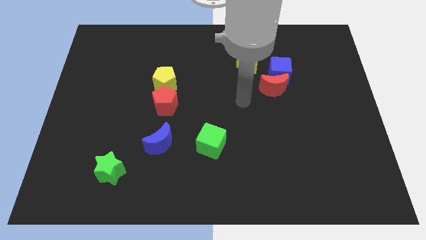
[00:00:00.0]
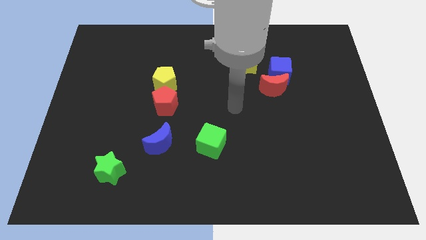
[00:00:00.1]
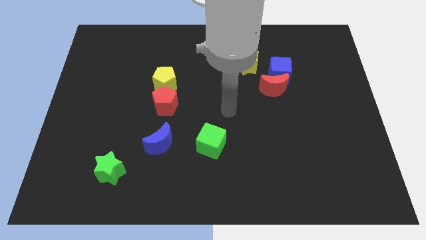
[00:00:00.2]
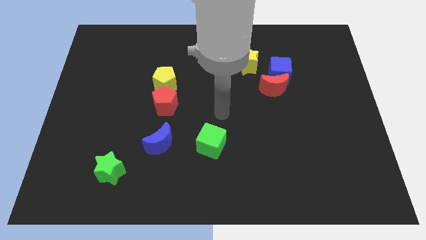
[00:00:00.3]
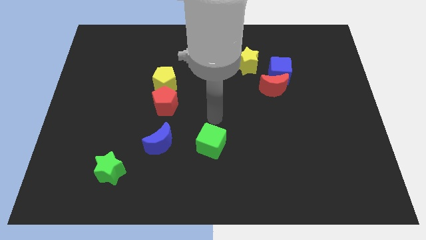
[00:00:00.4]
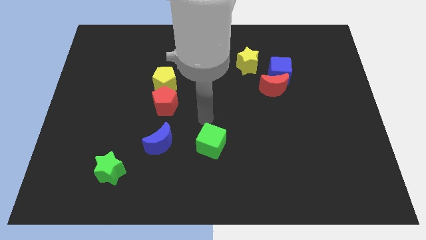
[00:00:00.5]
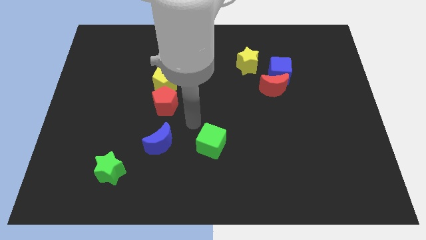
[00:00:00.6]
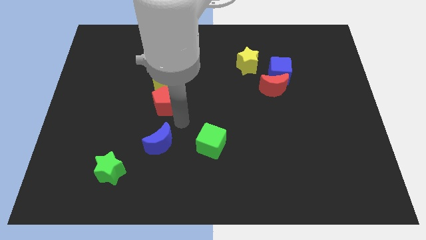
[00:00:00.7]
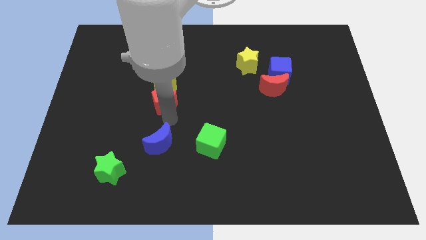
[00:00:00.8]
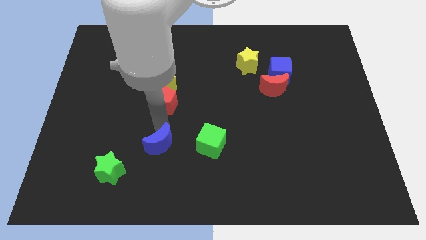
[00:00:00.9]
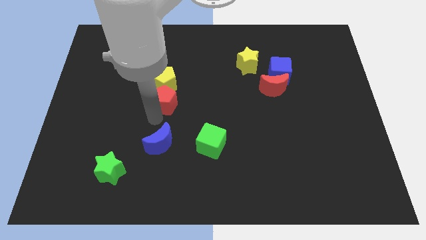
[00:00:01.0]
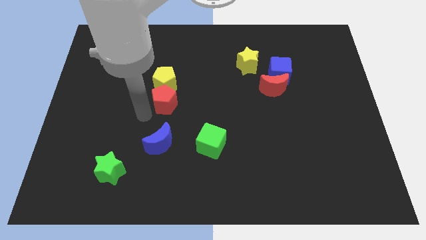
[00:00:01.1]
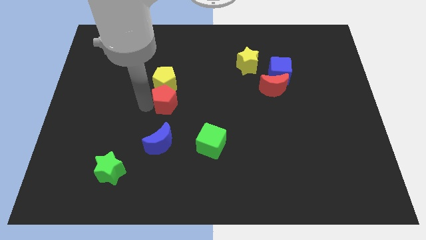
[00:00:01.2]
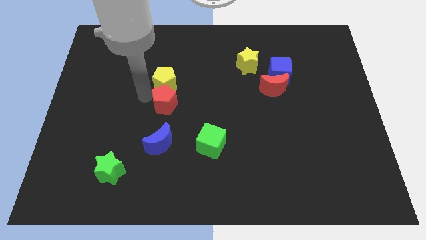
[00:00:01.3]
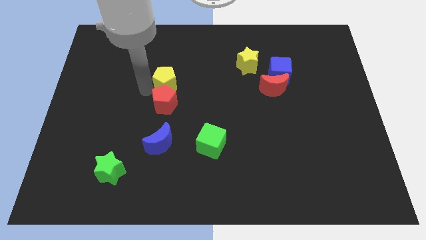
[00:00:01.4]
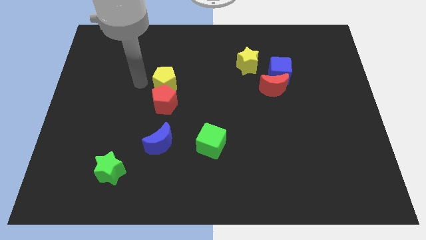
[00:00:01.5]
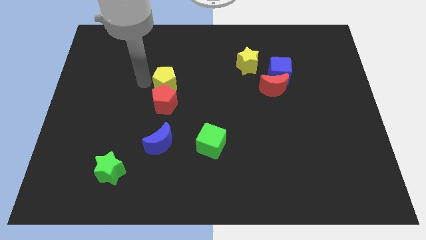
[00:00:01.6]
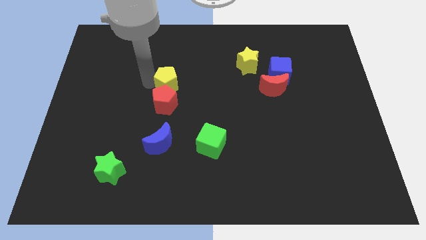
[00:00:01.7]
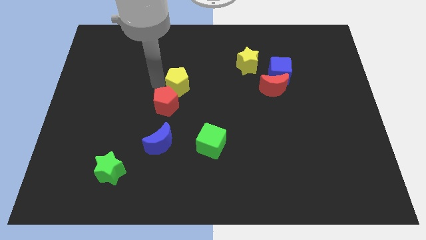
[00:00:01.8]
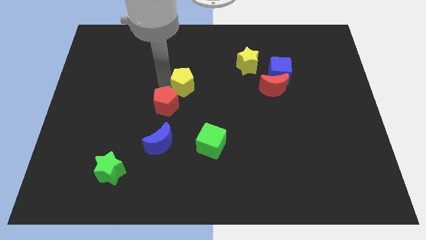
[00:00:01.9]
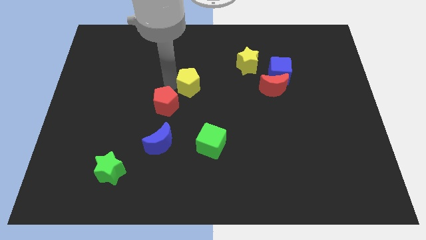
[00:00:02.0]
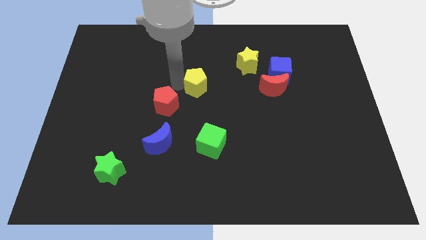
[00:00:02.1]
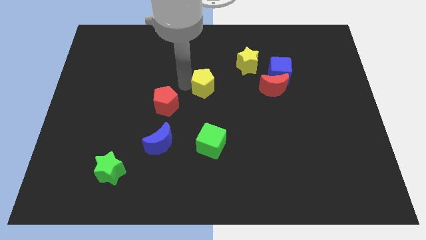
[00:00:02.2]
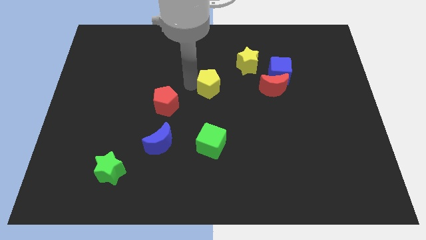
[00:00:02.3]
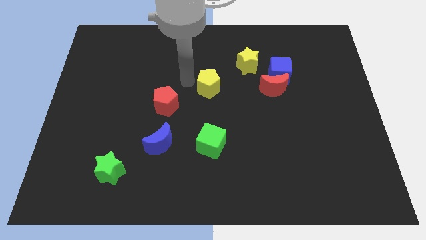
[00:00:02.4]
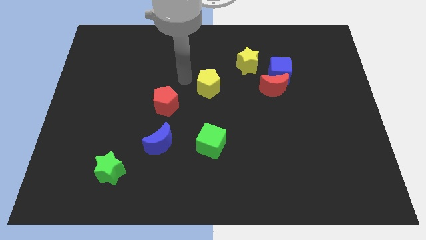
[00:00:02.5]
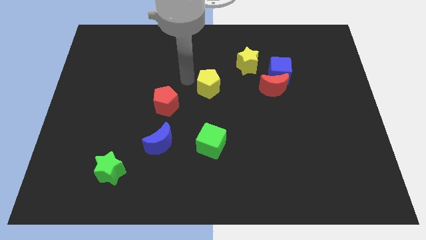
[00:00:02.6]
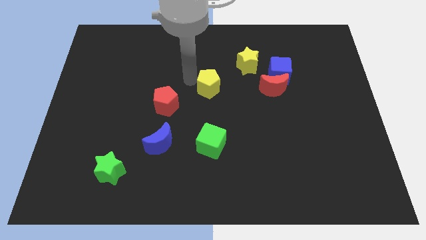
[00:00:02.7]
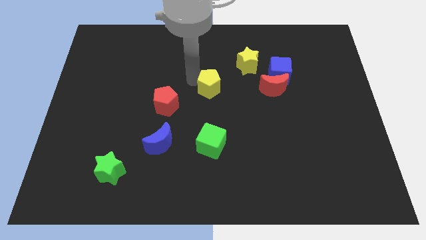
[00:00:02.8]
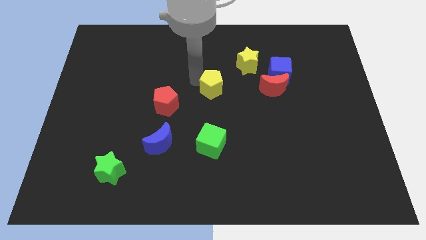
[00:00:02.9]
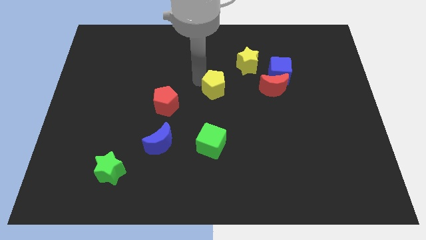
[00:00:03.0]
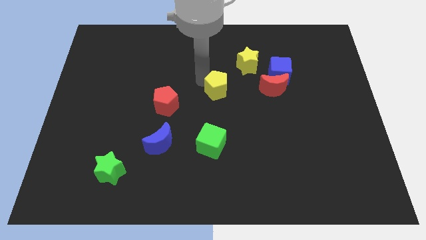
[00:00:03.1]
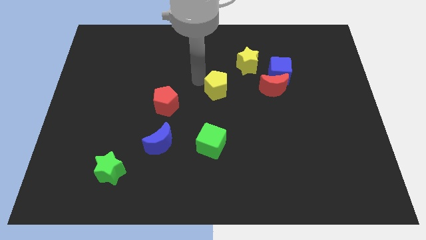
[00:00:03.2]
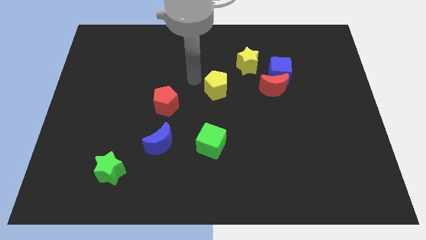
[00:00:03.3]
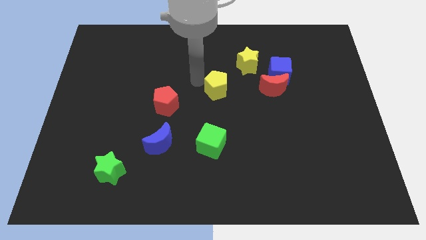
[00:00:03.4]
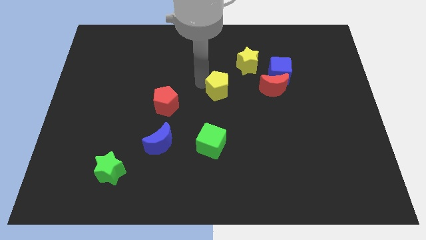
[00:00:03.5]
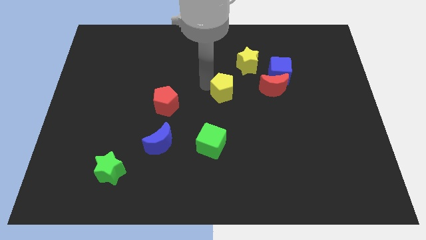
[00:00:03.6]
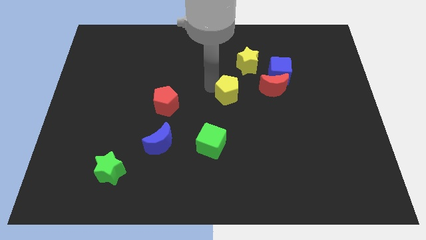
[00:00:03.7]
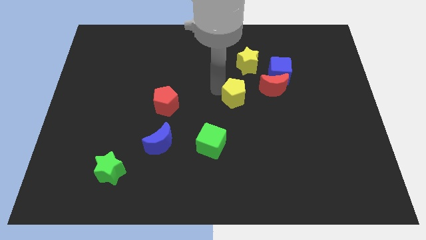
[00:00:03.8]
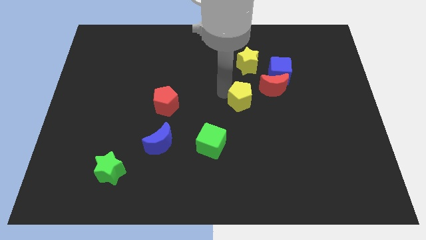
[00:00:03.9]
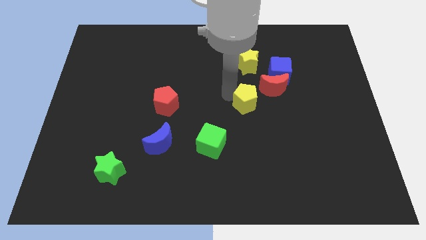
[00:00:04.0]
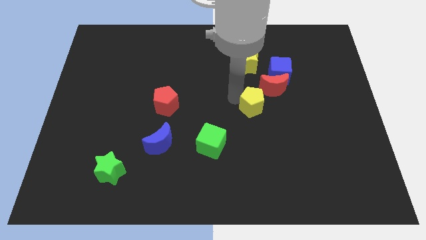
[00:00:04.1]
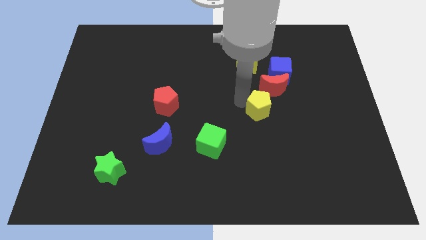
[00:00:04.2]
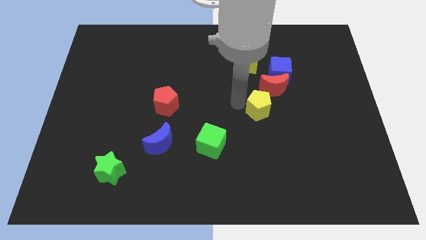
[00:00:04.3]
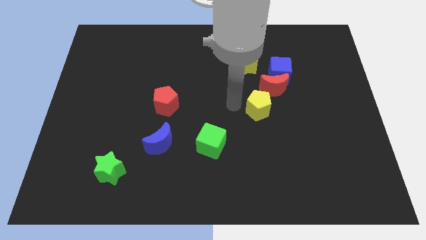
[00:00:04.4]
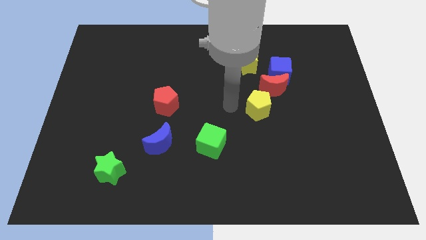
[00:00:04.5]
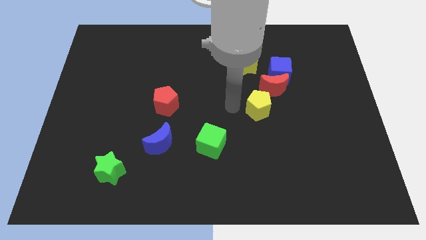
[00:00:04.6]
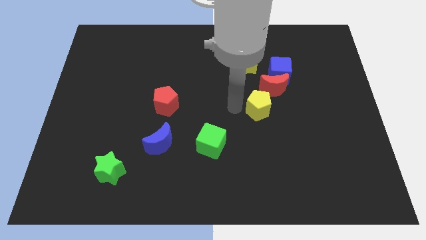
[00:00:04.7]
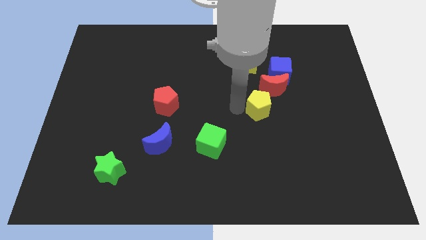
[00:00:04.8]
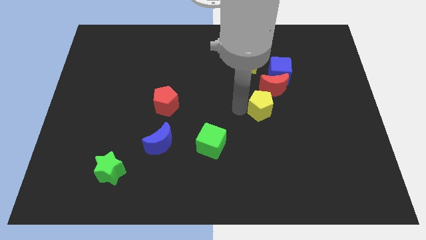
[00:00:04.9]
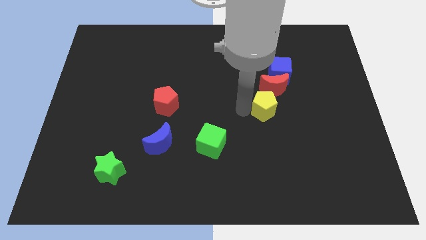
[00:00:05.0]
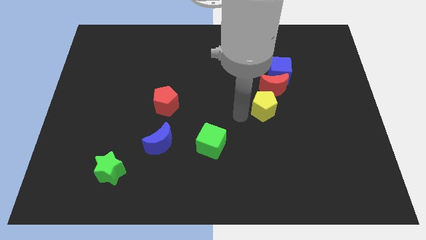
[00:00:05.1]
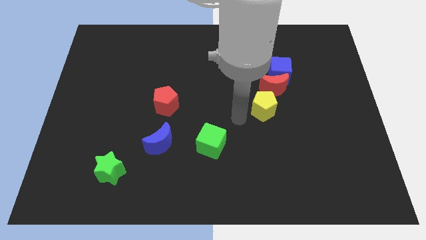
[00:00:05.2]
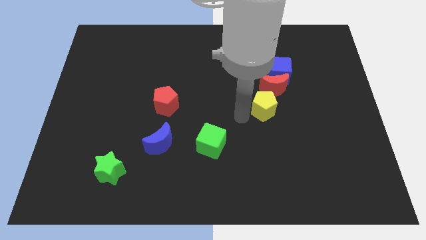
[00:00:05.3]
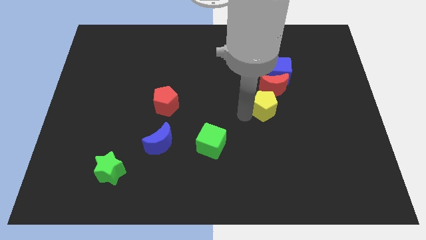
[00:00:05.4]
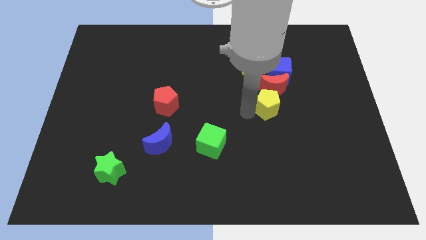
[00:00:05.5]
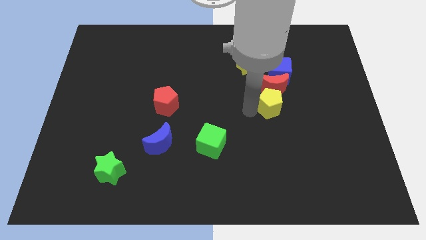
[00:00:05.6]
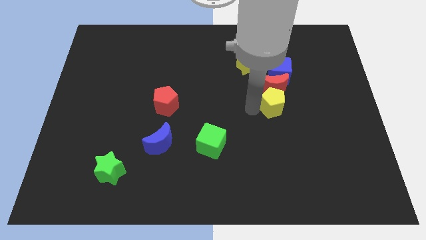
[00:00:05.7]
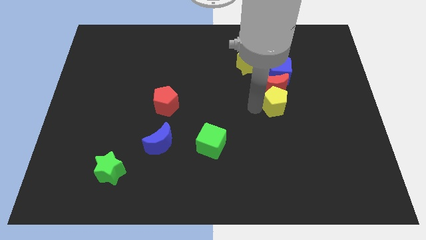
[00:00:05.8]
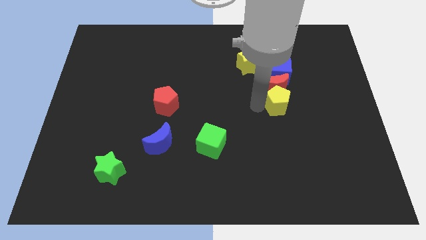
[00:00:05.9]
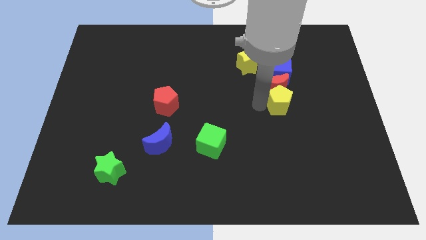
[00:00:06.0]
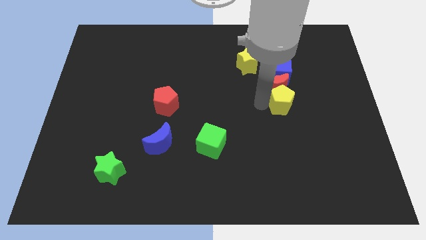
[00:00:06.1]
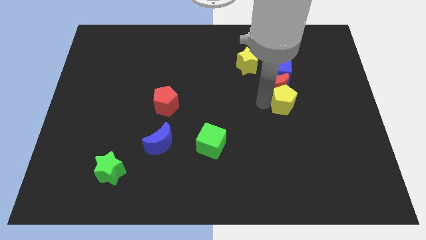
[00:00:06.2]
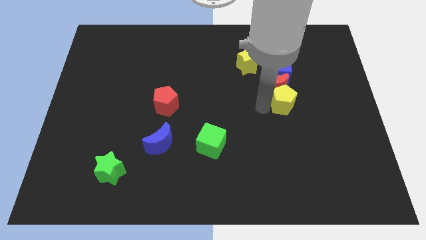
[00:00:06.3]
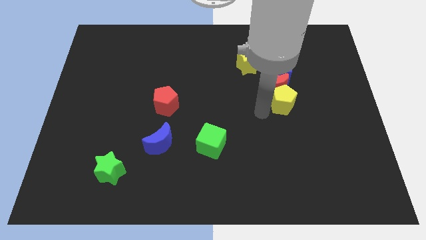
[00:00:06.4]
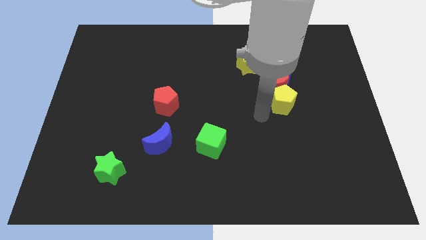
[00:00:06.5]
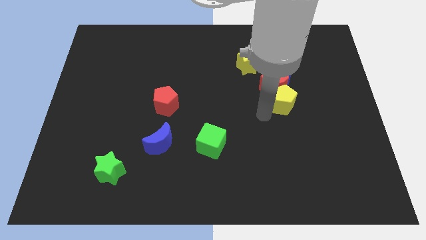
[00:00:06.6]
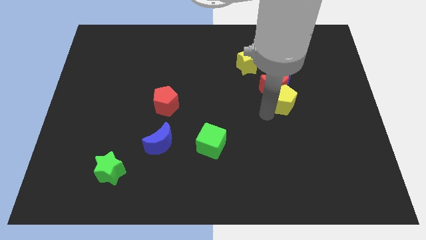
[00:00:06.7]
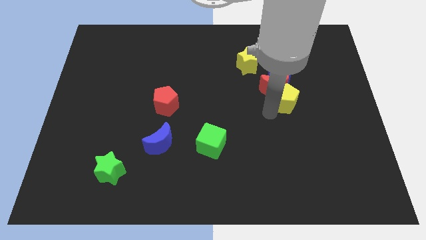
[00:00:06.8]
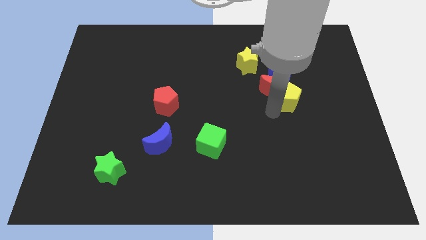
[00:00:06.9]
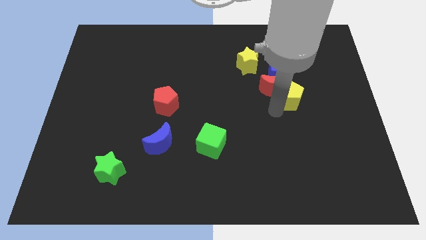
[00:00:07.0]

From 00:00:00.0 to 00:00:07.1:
put the yellow pentagon to the bottom right side of the blue cube
